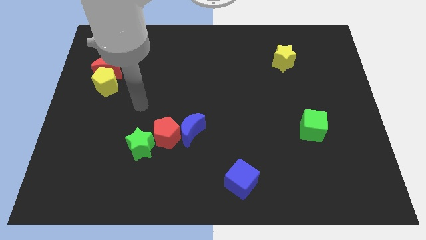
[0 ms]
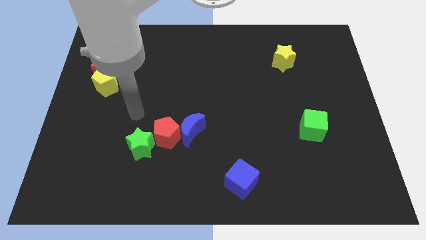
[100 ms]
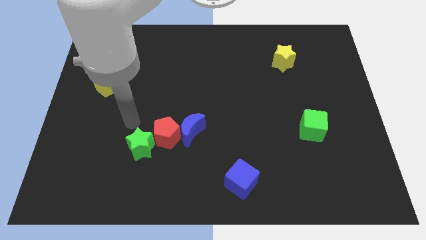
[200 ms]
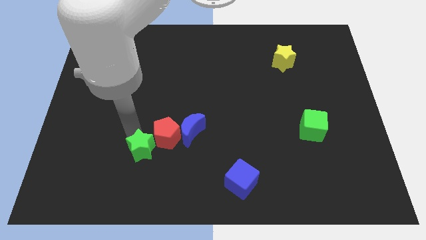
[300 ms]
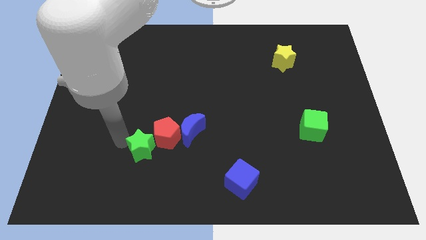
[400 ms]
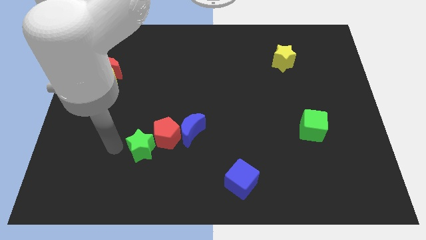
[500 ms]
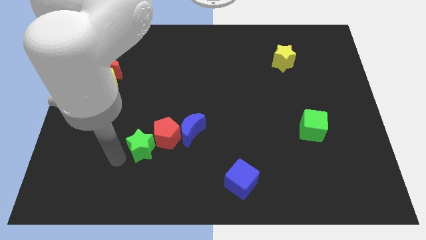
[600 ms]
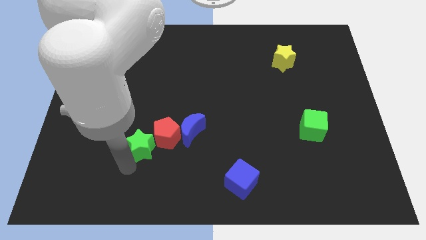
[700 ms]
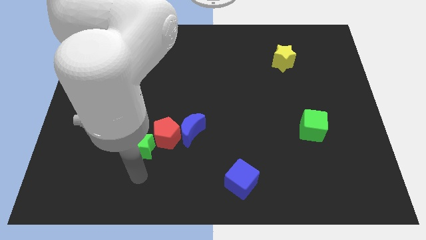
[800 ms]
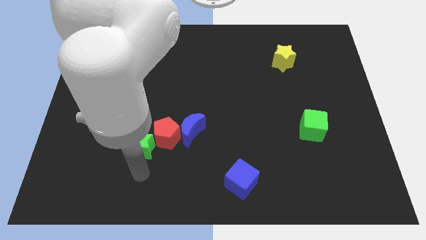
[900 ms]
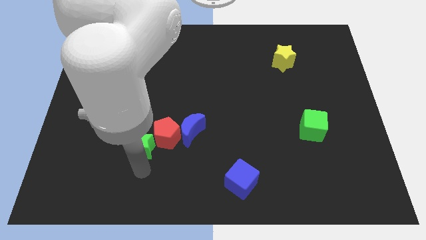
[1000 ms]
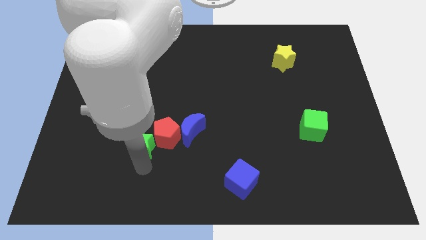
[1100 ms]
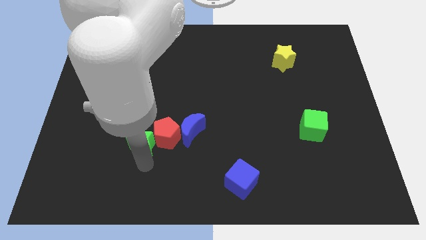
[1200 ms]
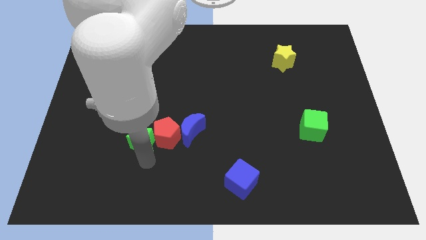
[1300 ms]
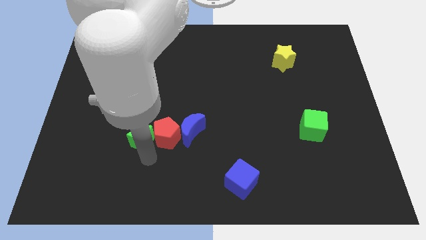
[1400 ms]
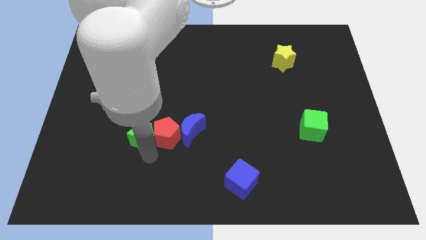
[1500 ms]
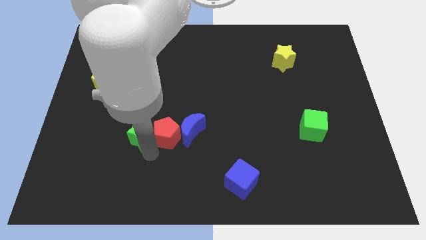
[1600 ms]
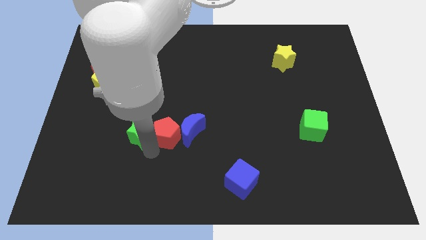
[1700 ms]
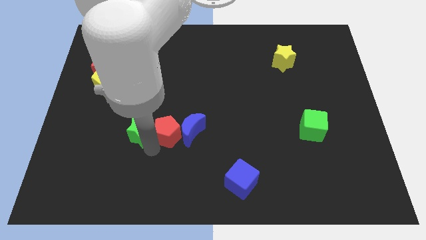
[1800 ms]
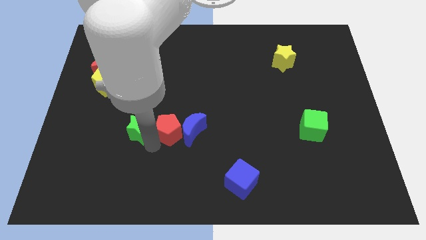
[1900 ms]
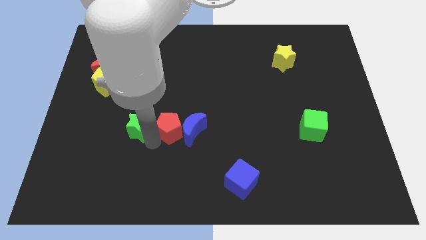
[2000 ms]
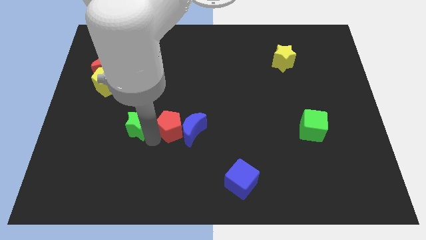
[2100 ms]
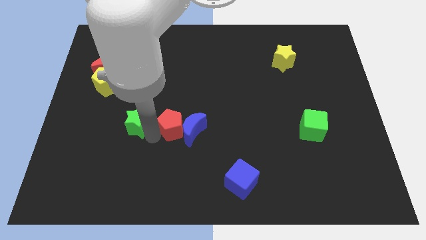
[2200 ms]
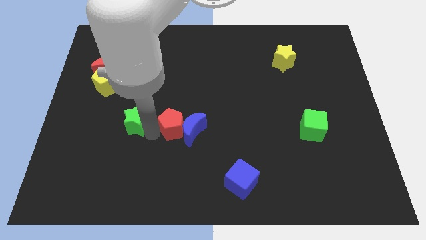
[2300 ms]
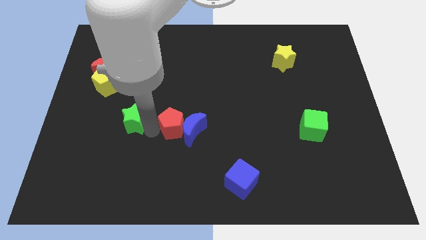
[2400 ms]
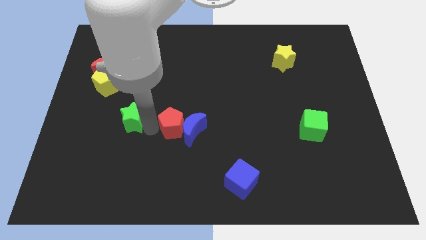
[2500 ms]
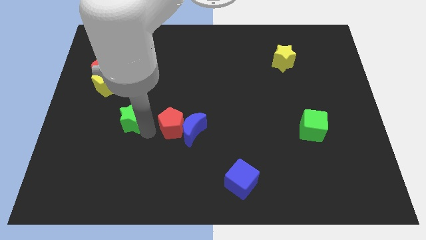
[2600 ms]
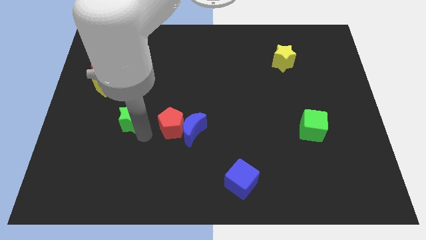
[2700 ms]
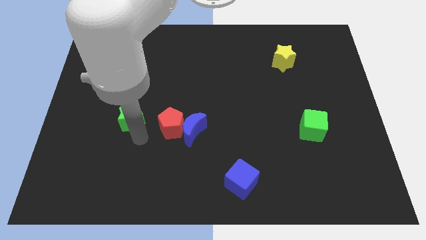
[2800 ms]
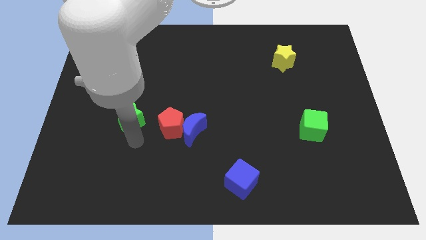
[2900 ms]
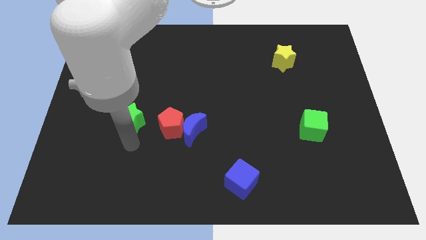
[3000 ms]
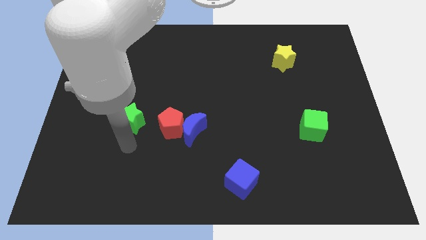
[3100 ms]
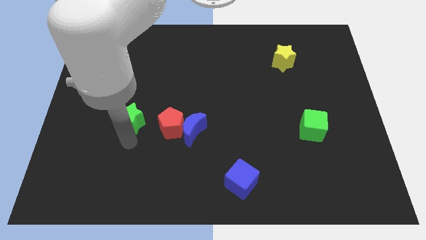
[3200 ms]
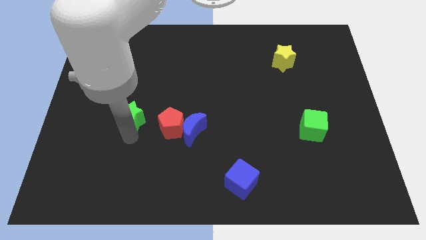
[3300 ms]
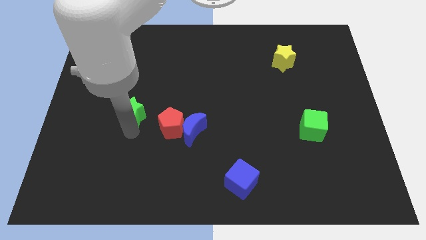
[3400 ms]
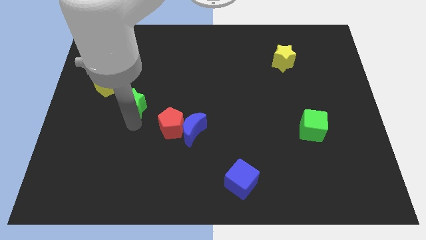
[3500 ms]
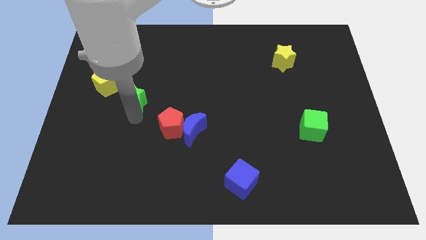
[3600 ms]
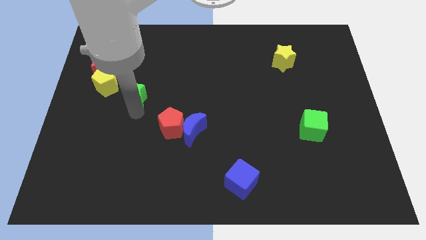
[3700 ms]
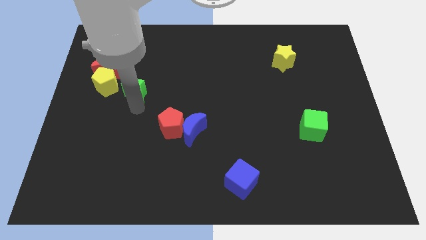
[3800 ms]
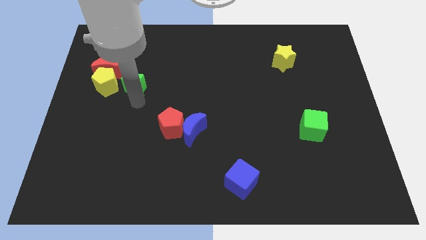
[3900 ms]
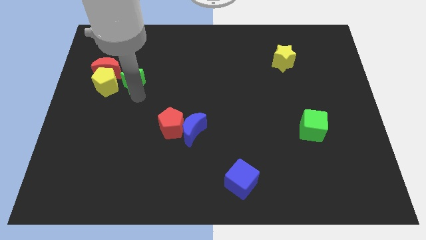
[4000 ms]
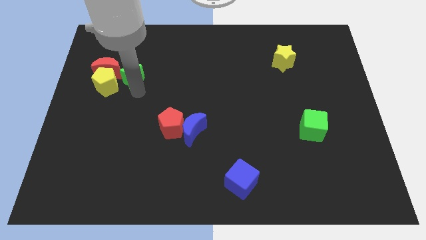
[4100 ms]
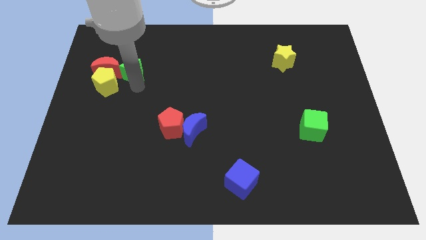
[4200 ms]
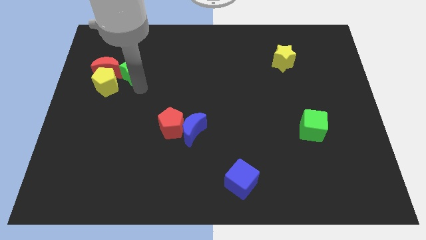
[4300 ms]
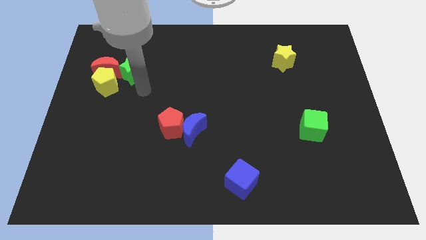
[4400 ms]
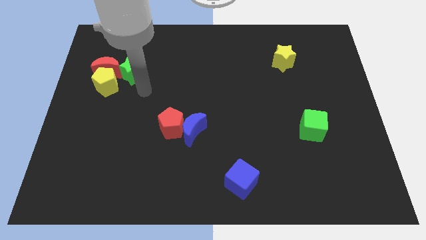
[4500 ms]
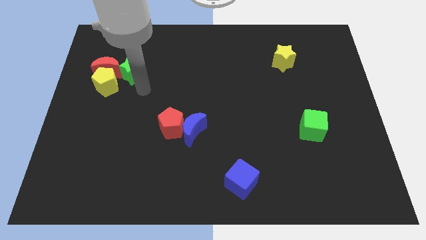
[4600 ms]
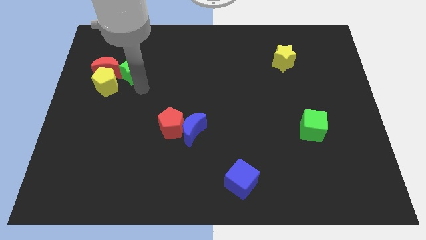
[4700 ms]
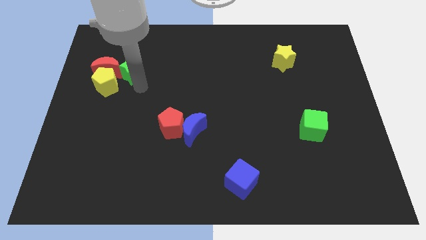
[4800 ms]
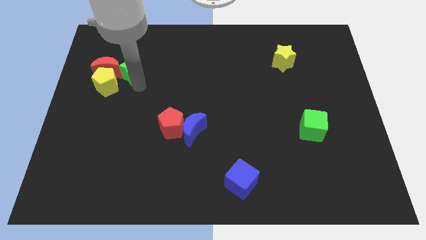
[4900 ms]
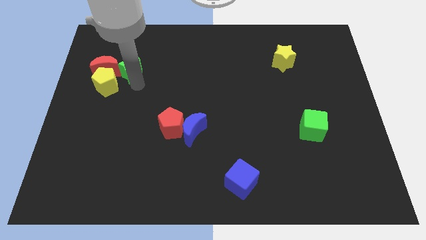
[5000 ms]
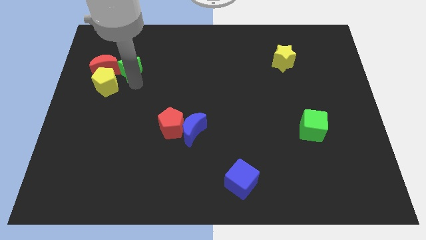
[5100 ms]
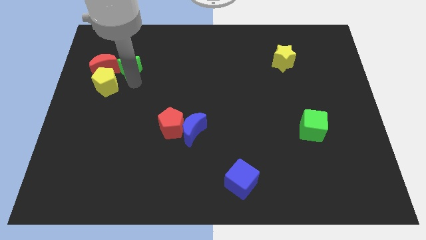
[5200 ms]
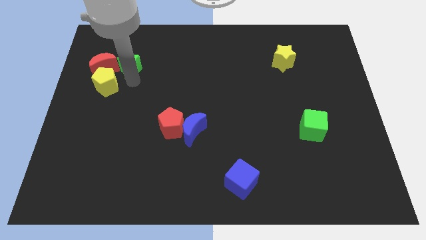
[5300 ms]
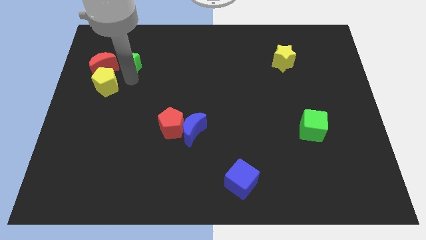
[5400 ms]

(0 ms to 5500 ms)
slide the green star to the top of the yellow pentagon

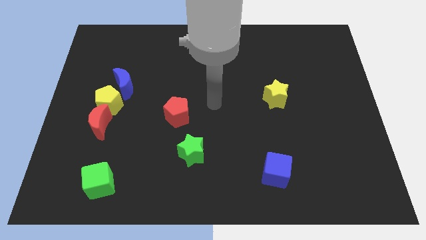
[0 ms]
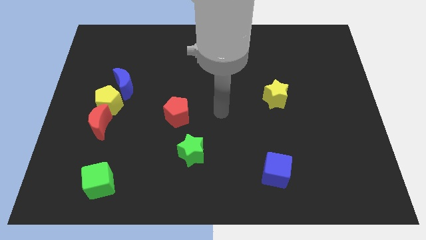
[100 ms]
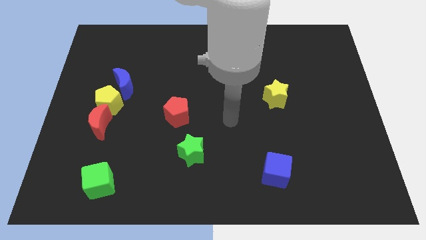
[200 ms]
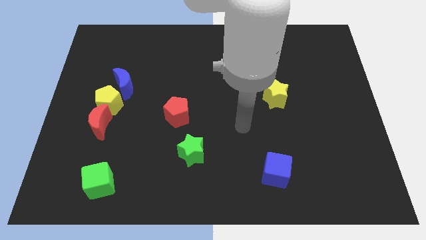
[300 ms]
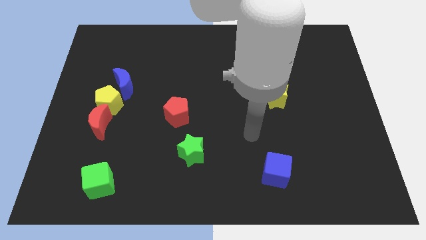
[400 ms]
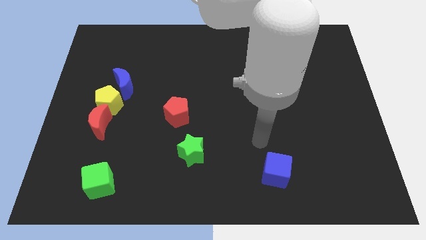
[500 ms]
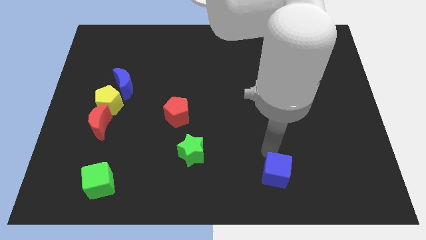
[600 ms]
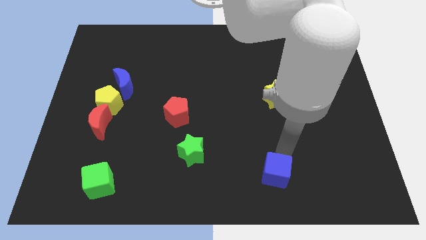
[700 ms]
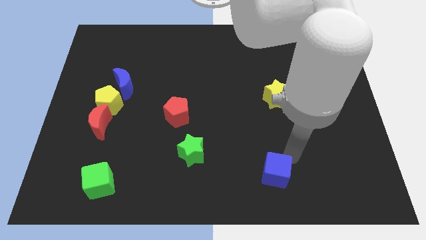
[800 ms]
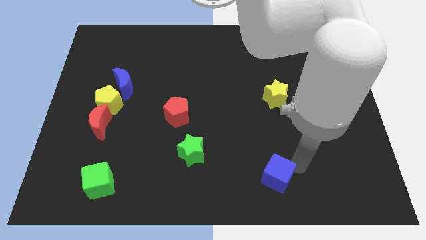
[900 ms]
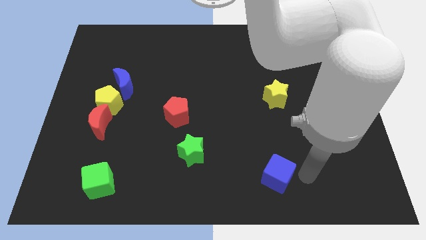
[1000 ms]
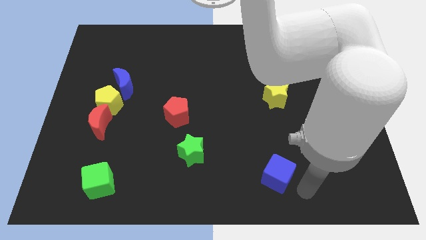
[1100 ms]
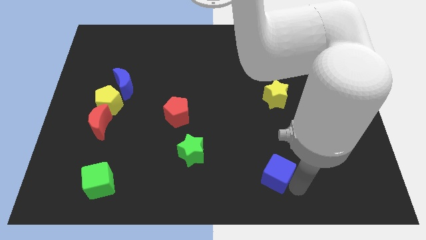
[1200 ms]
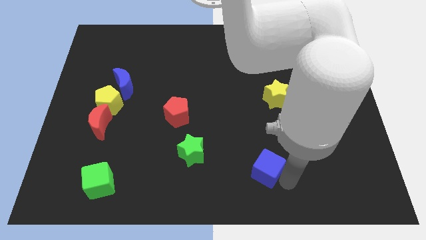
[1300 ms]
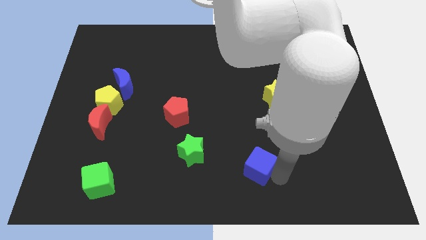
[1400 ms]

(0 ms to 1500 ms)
slide the blue cube to the right of the green star

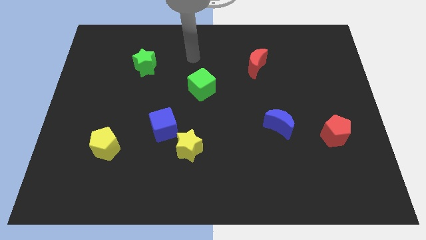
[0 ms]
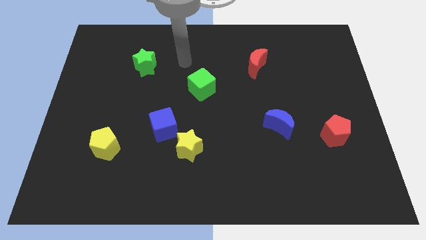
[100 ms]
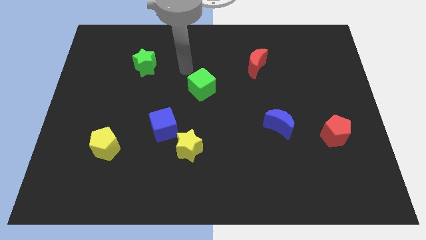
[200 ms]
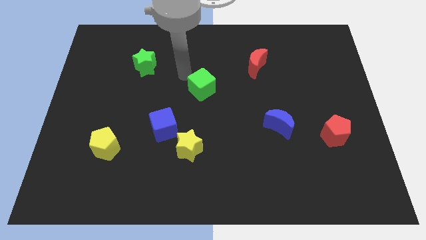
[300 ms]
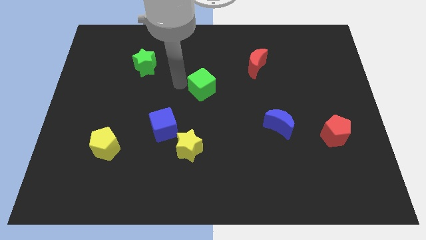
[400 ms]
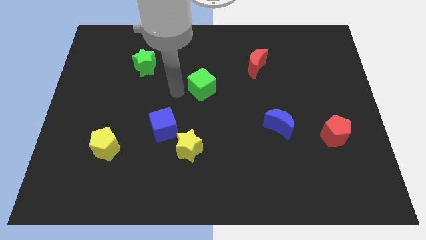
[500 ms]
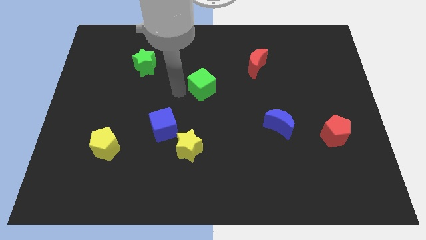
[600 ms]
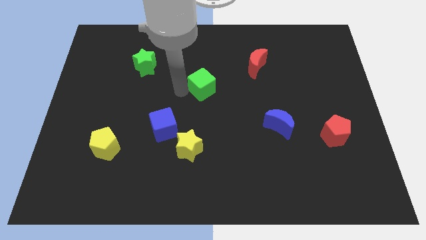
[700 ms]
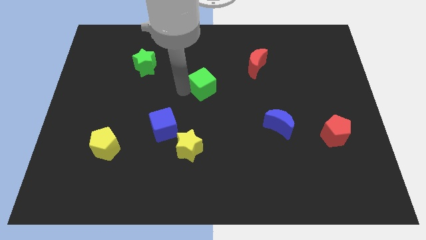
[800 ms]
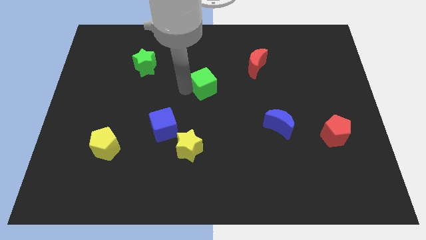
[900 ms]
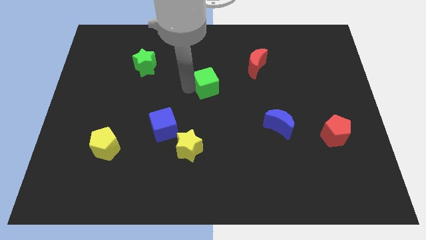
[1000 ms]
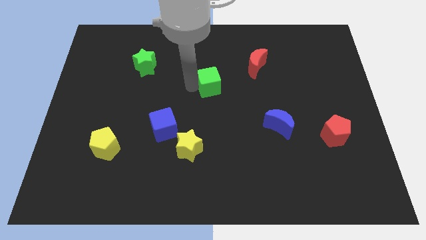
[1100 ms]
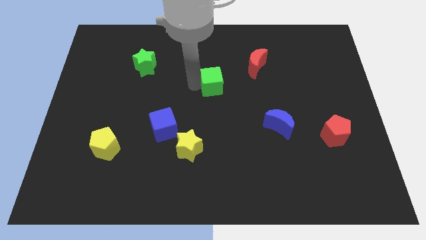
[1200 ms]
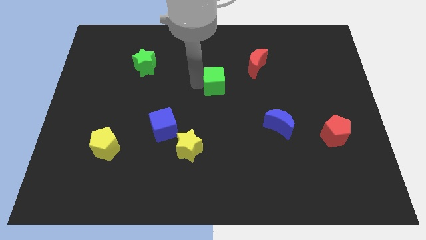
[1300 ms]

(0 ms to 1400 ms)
put the green cube to the bottom left side of the red moon
